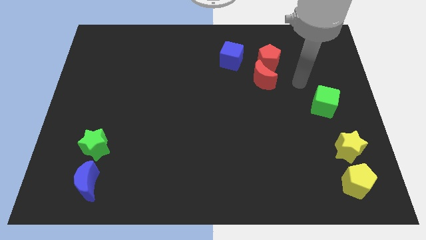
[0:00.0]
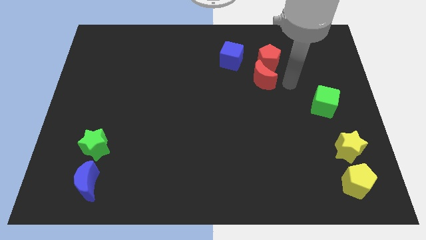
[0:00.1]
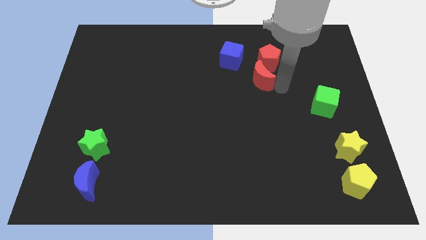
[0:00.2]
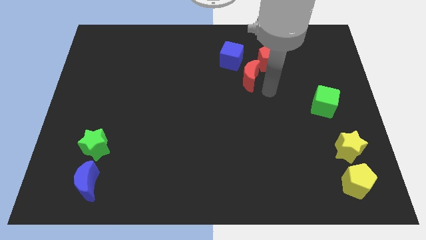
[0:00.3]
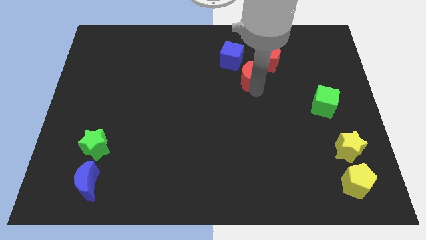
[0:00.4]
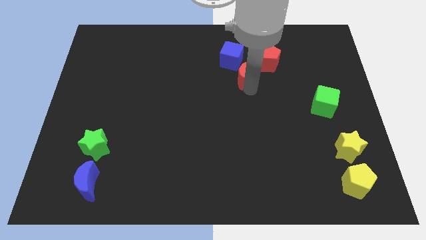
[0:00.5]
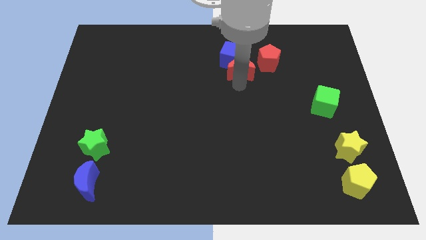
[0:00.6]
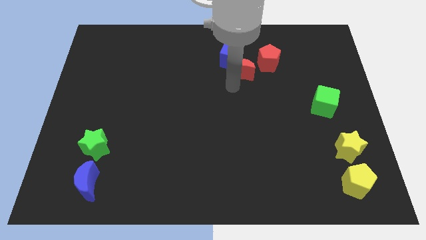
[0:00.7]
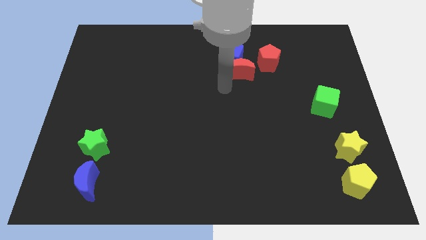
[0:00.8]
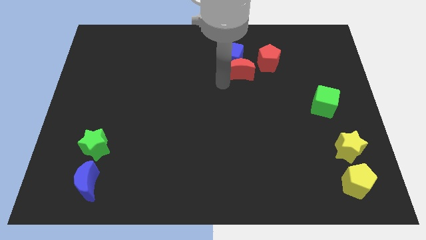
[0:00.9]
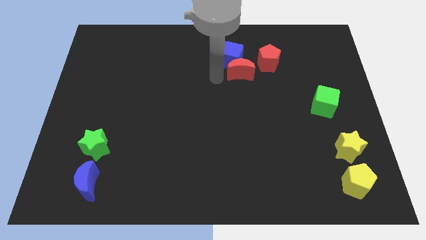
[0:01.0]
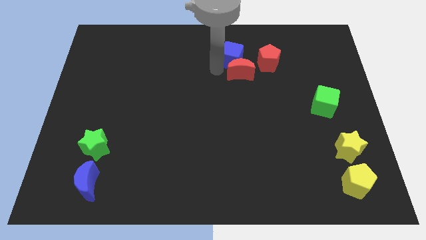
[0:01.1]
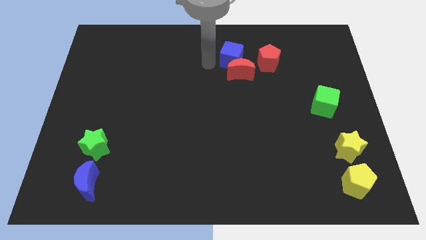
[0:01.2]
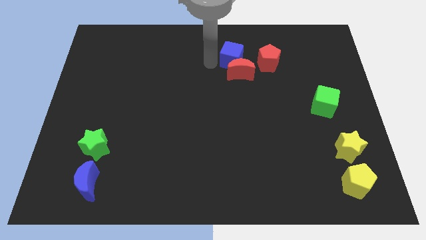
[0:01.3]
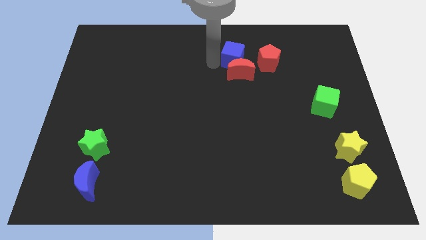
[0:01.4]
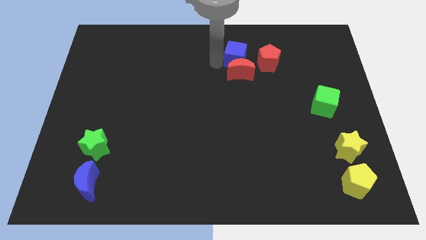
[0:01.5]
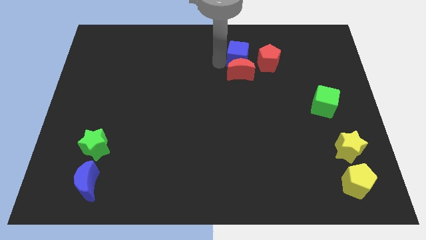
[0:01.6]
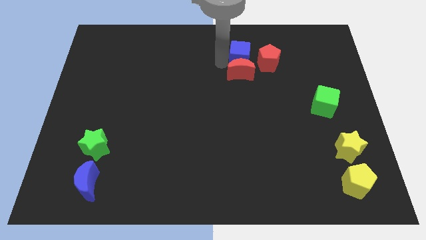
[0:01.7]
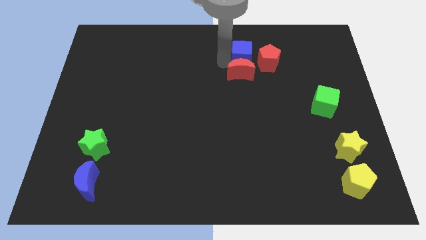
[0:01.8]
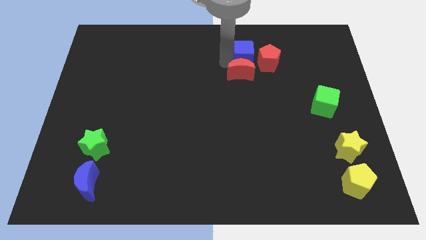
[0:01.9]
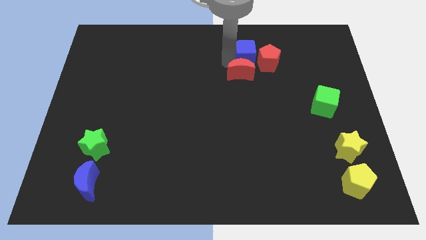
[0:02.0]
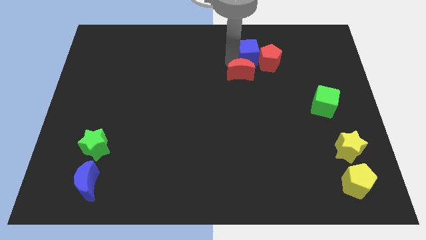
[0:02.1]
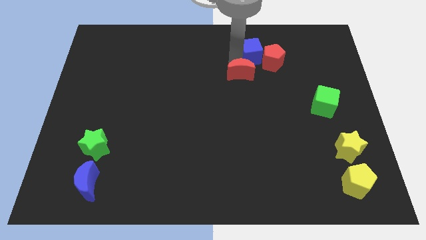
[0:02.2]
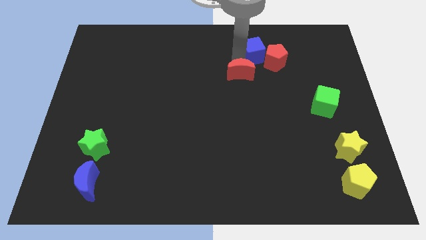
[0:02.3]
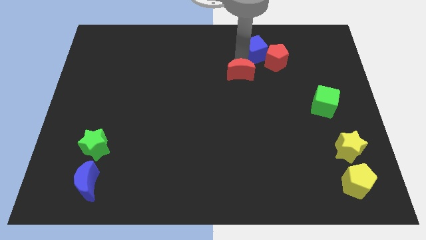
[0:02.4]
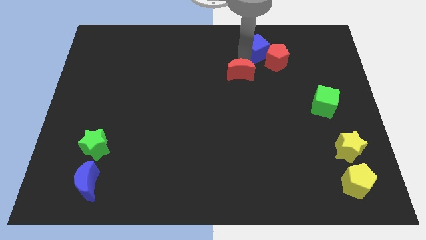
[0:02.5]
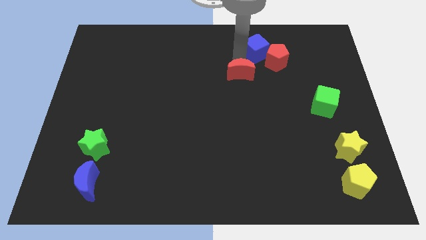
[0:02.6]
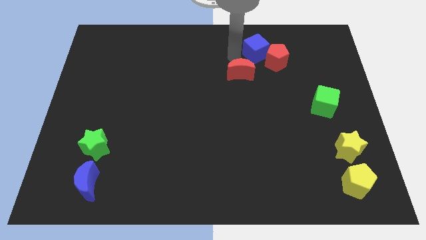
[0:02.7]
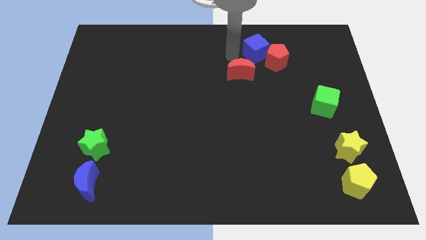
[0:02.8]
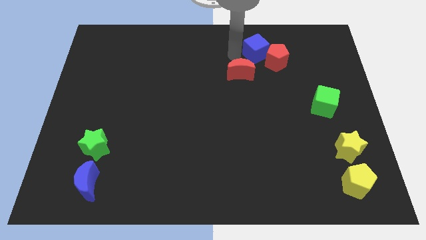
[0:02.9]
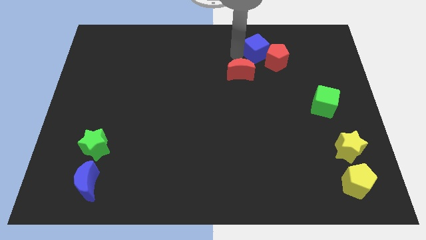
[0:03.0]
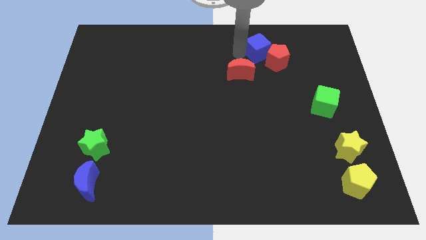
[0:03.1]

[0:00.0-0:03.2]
push the blue cube right somewhat

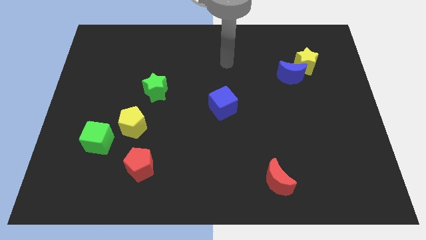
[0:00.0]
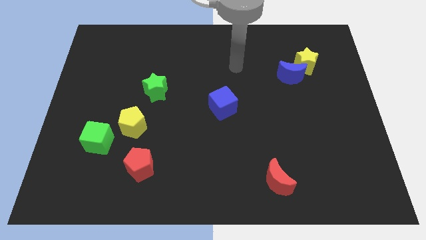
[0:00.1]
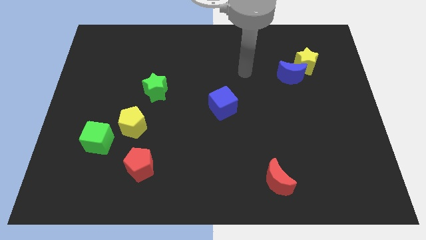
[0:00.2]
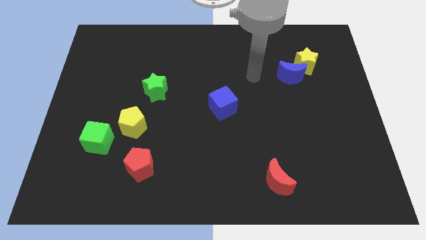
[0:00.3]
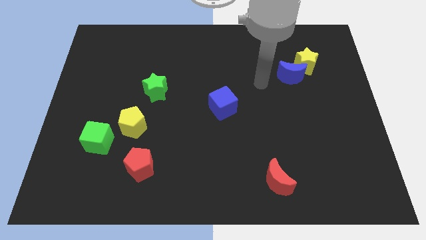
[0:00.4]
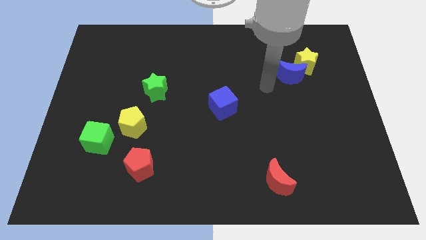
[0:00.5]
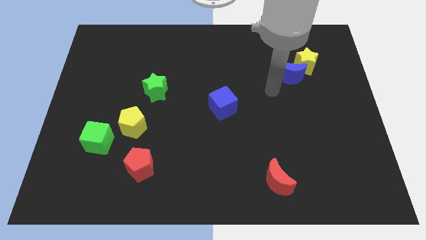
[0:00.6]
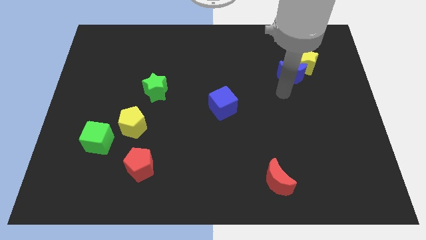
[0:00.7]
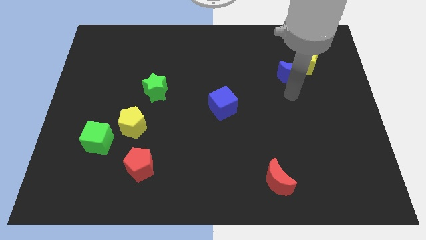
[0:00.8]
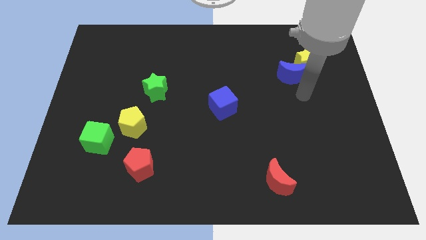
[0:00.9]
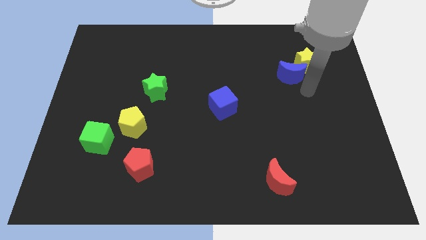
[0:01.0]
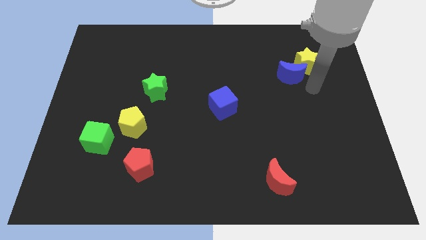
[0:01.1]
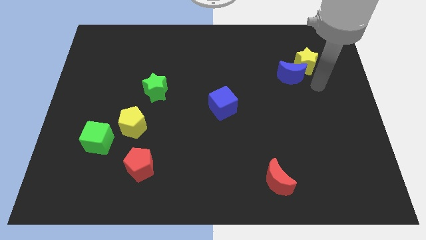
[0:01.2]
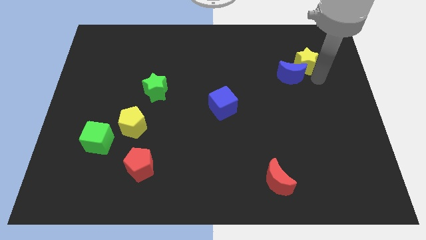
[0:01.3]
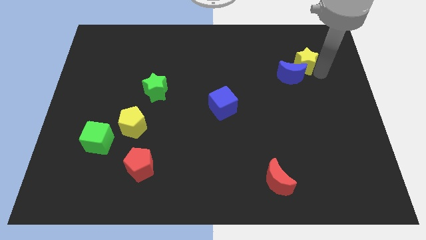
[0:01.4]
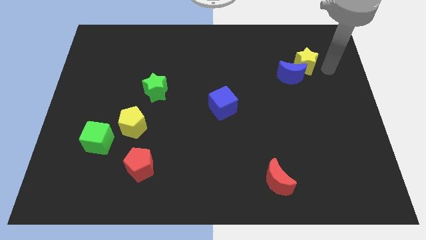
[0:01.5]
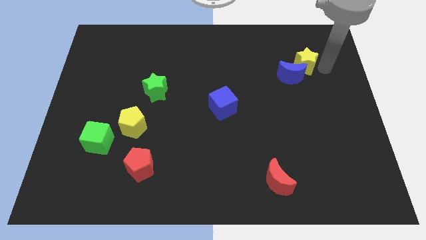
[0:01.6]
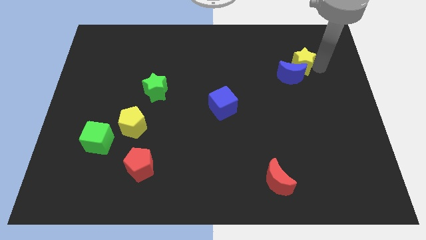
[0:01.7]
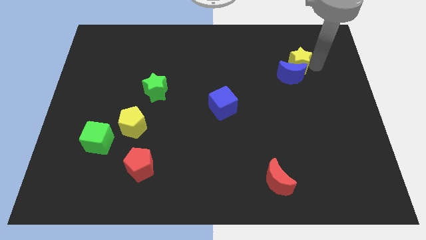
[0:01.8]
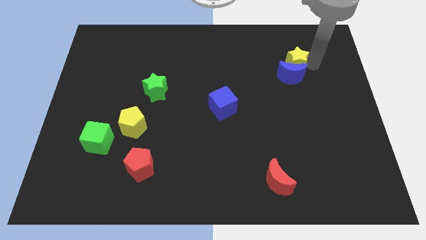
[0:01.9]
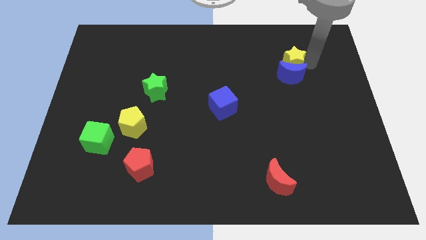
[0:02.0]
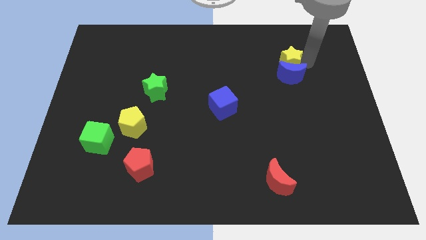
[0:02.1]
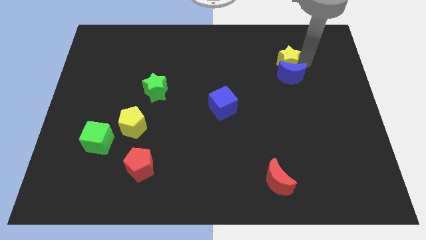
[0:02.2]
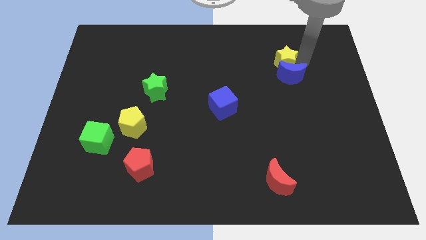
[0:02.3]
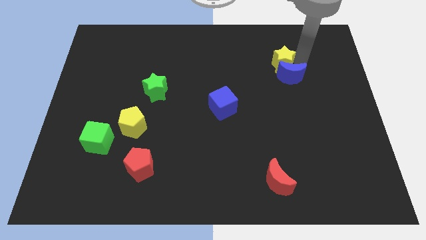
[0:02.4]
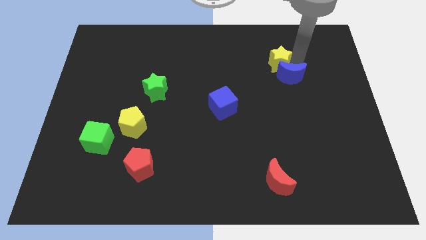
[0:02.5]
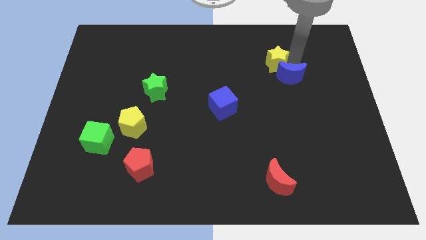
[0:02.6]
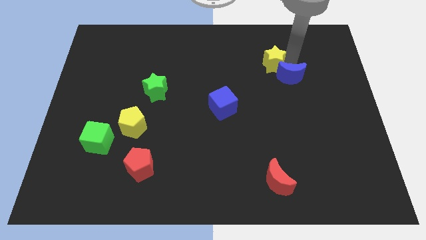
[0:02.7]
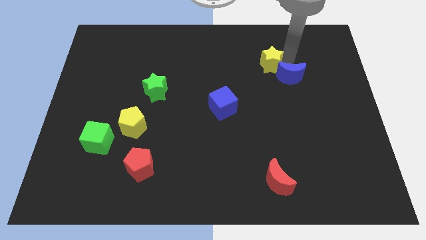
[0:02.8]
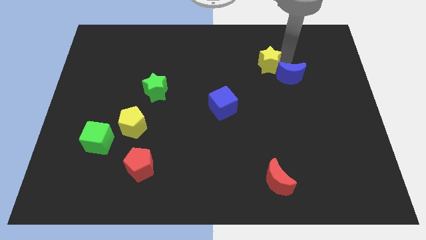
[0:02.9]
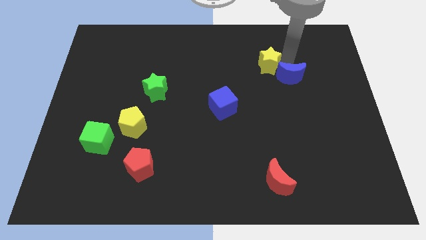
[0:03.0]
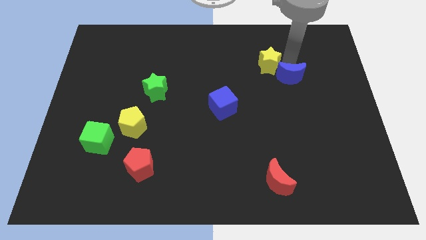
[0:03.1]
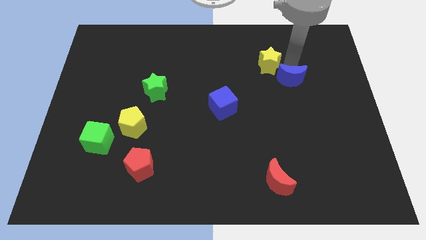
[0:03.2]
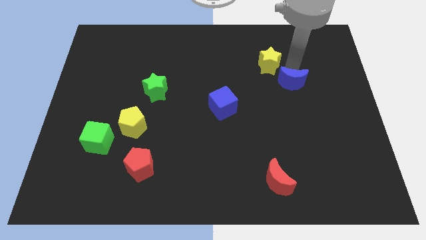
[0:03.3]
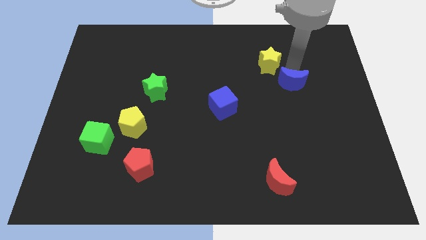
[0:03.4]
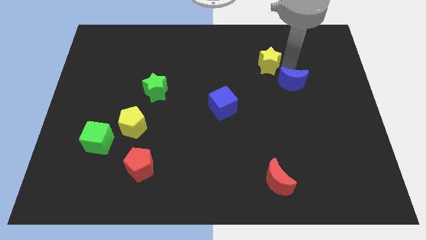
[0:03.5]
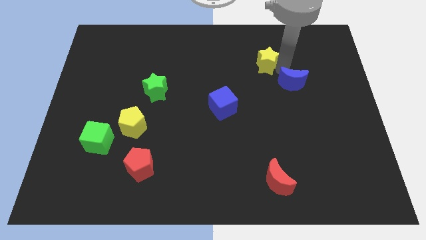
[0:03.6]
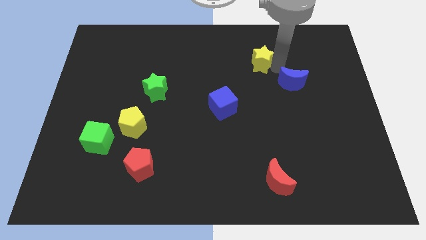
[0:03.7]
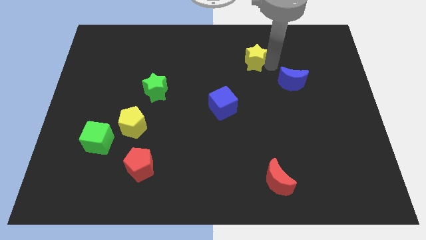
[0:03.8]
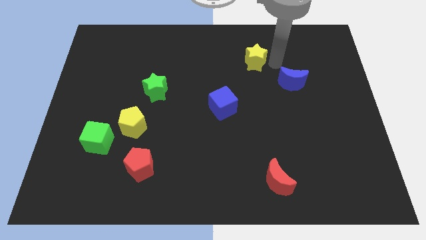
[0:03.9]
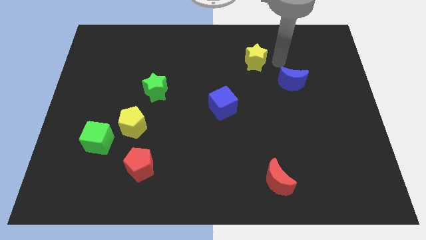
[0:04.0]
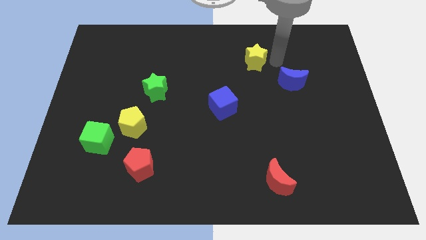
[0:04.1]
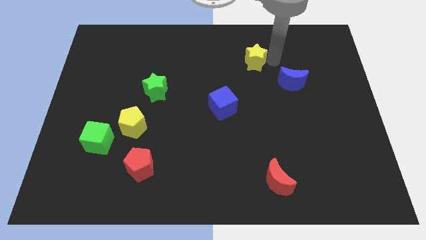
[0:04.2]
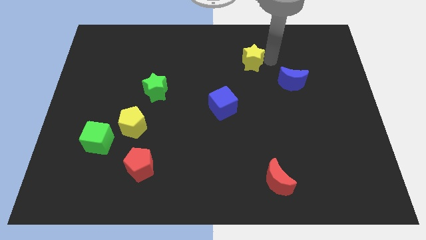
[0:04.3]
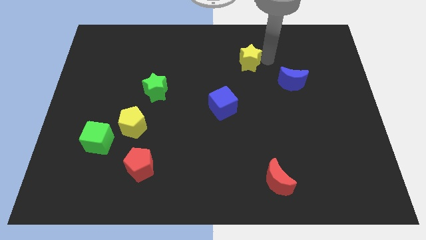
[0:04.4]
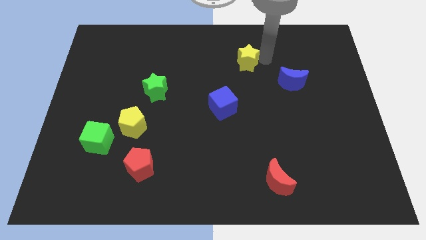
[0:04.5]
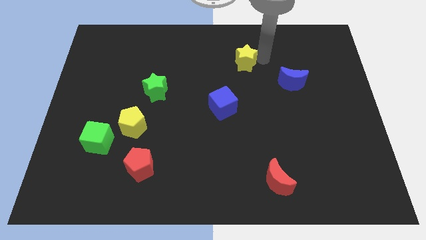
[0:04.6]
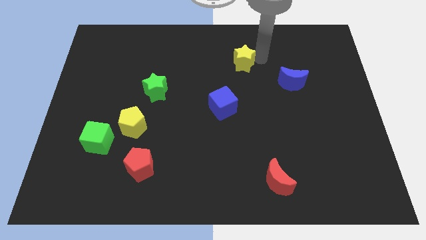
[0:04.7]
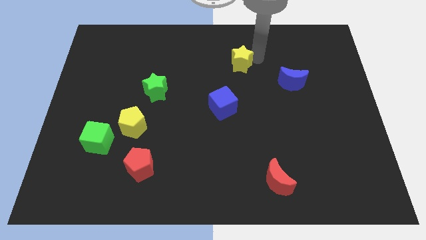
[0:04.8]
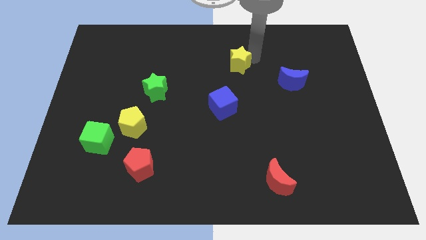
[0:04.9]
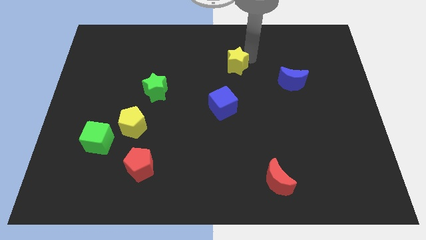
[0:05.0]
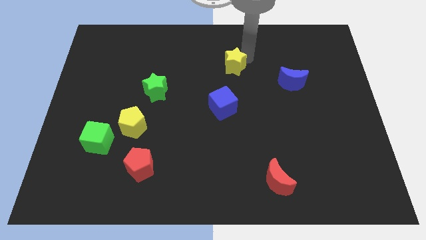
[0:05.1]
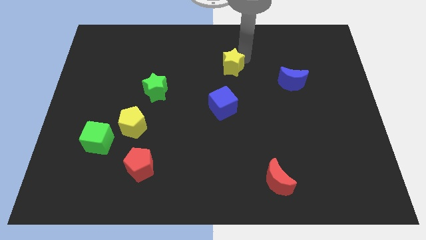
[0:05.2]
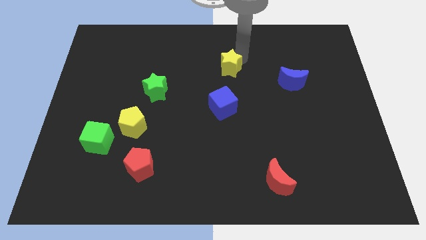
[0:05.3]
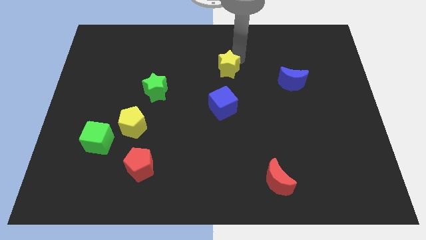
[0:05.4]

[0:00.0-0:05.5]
slide the yellow star to the left
